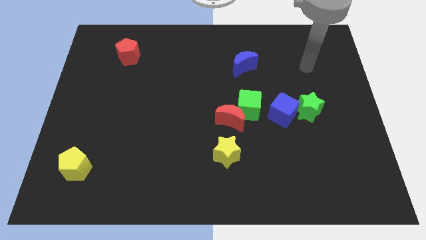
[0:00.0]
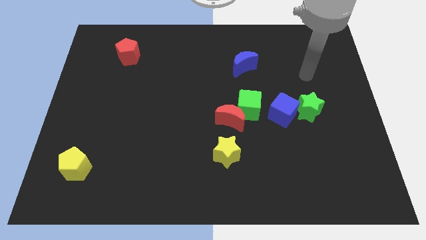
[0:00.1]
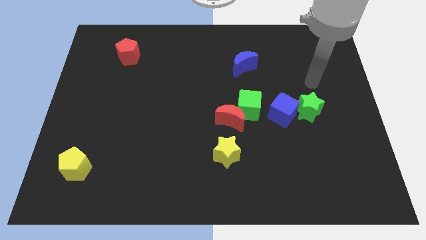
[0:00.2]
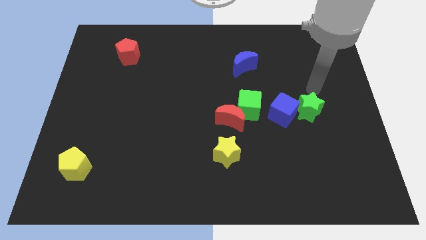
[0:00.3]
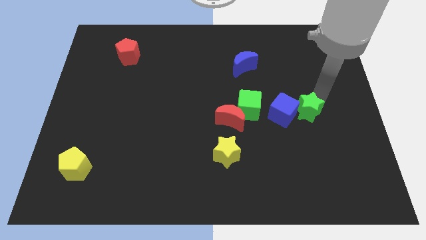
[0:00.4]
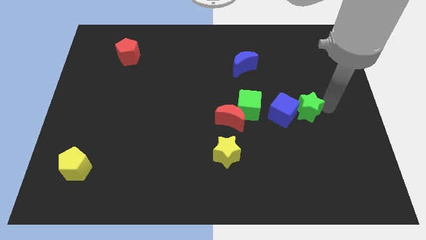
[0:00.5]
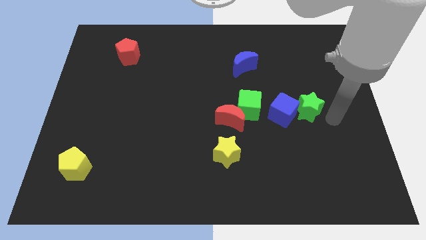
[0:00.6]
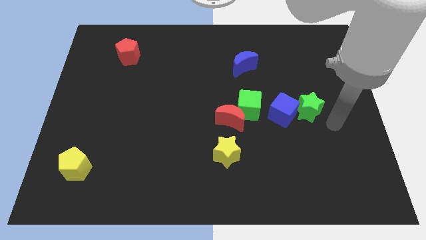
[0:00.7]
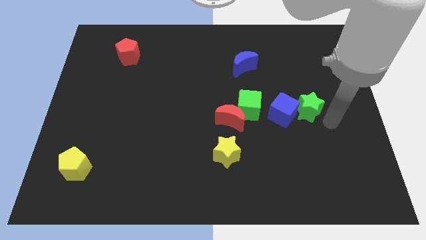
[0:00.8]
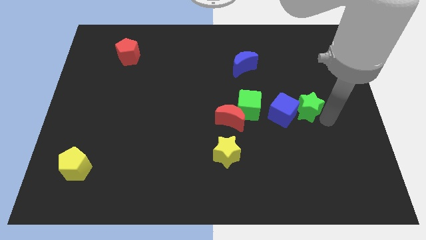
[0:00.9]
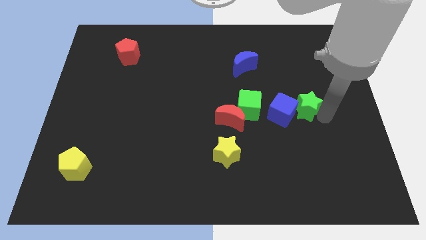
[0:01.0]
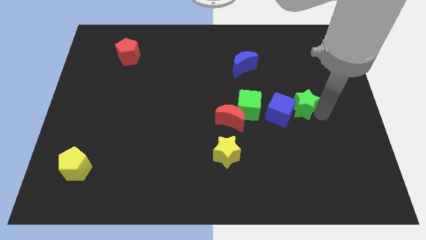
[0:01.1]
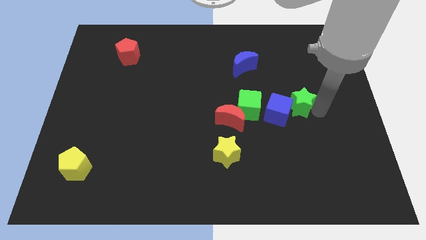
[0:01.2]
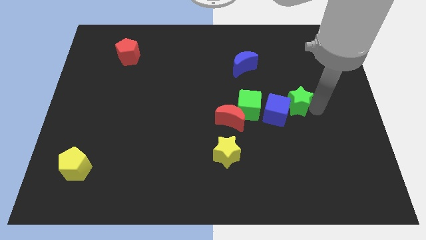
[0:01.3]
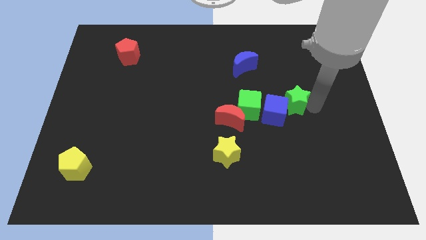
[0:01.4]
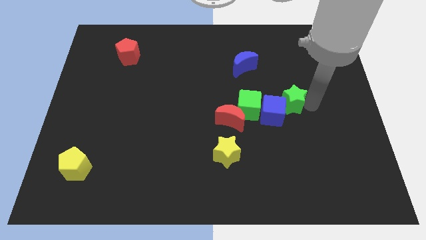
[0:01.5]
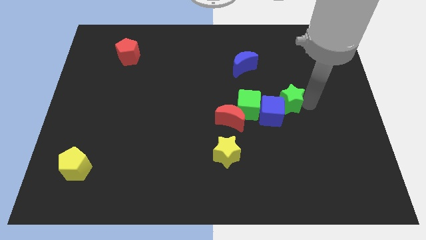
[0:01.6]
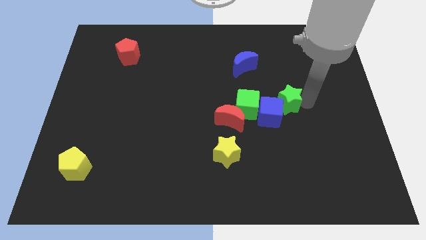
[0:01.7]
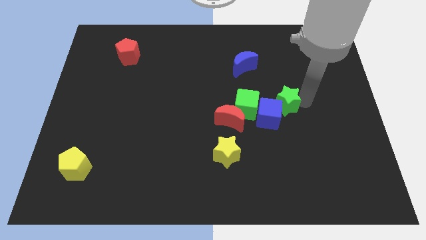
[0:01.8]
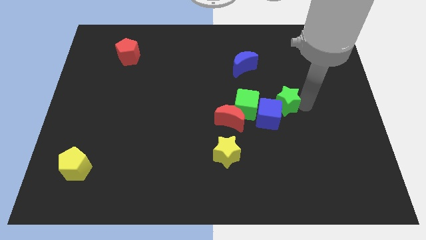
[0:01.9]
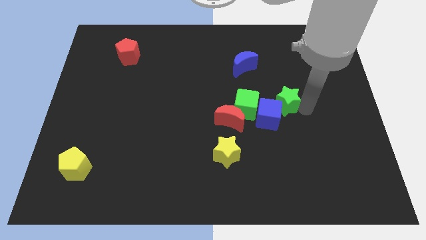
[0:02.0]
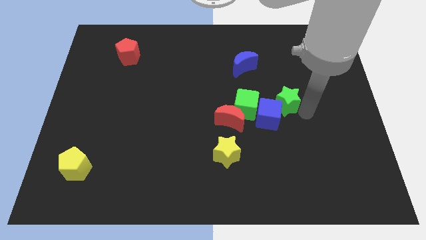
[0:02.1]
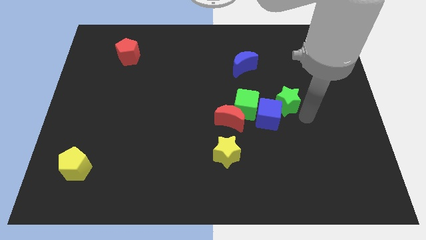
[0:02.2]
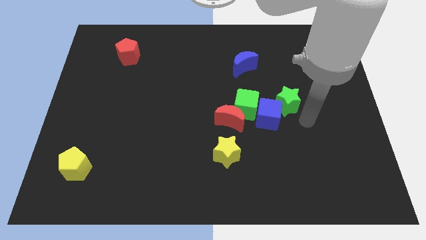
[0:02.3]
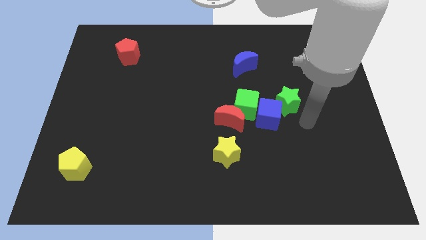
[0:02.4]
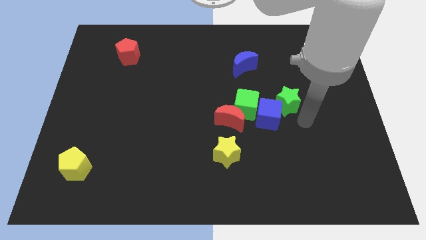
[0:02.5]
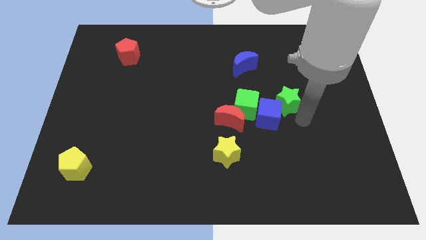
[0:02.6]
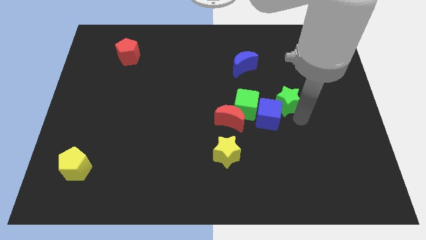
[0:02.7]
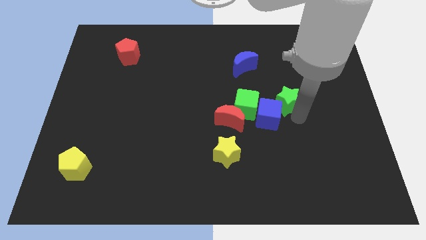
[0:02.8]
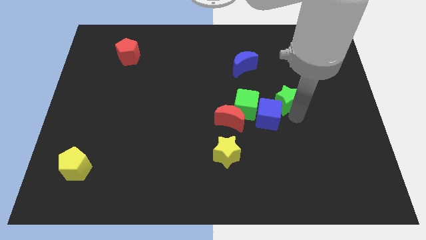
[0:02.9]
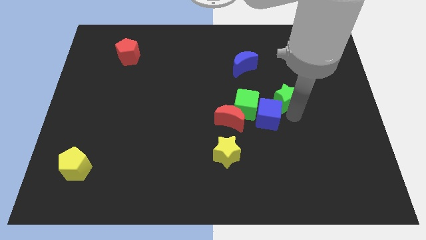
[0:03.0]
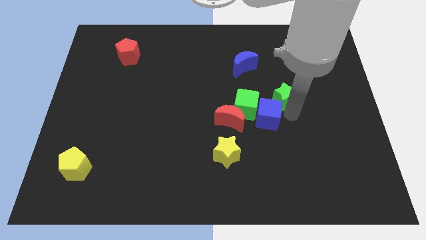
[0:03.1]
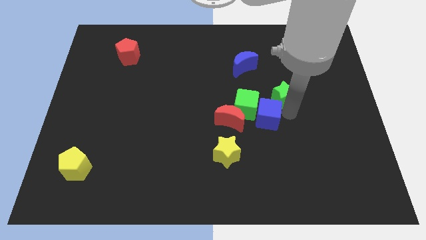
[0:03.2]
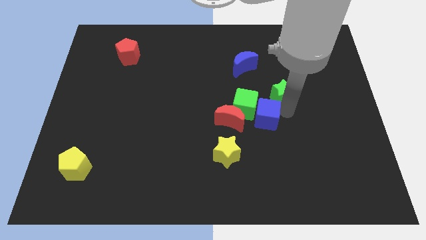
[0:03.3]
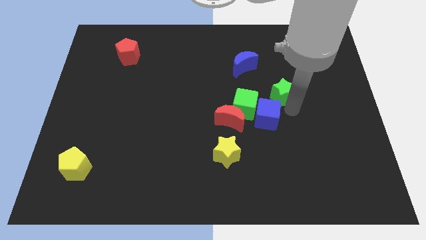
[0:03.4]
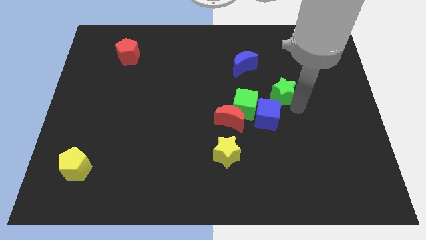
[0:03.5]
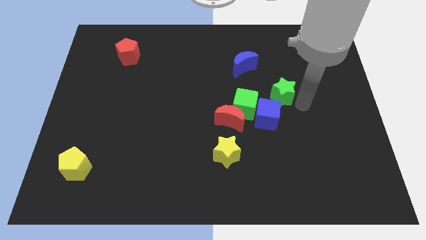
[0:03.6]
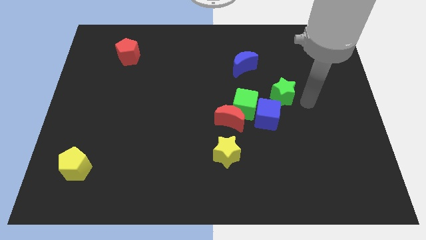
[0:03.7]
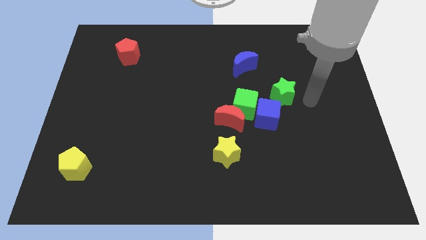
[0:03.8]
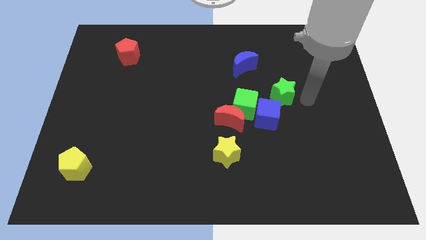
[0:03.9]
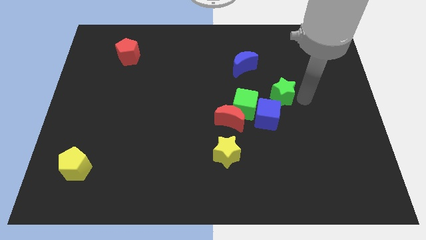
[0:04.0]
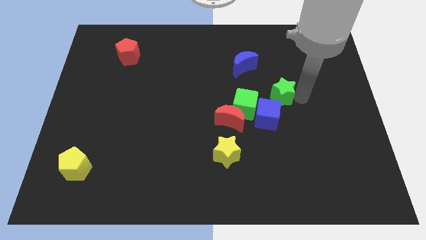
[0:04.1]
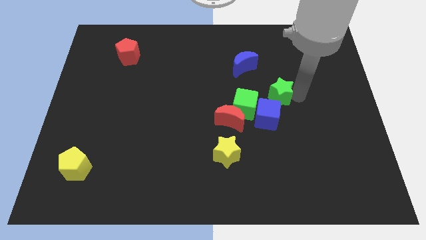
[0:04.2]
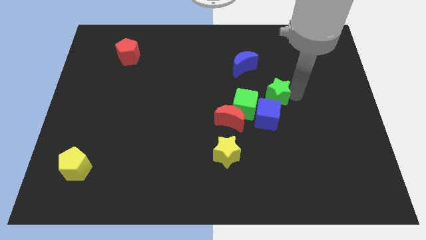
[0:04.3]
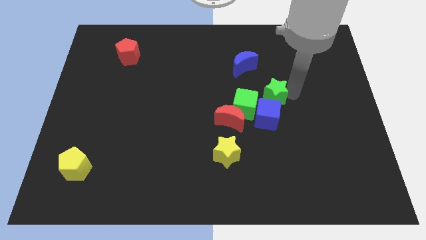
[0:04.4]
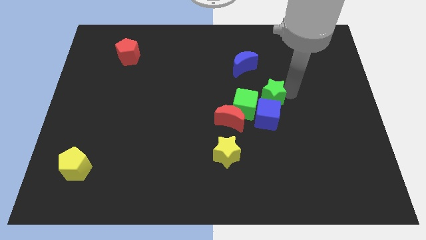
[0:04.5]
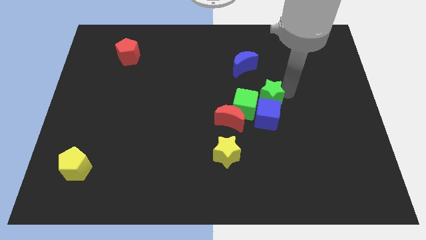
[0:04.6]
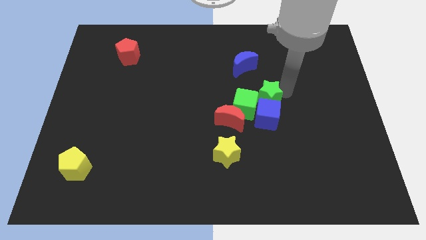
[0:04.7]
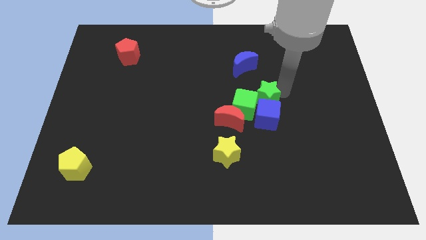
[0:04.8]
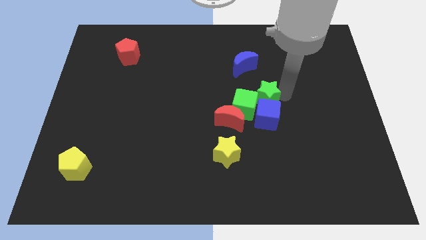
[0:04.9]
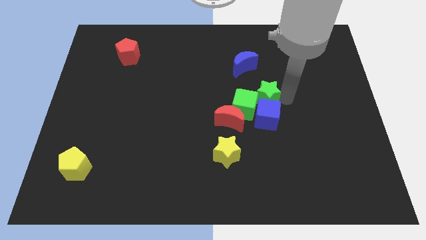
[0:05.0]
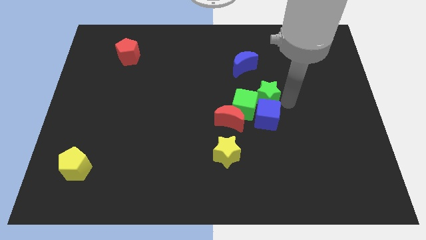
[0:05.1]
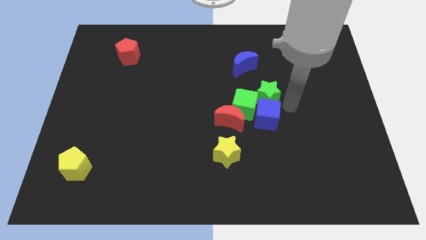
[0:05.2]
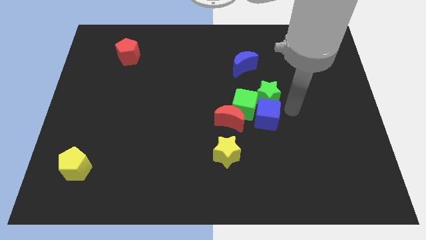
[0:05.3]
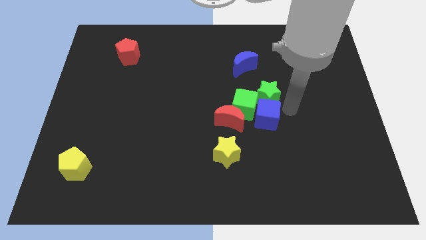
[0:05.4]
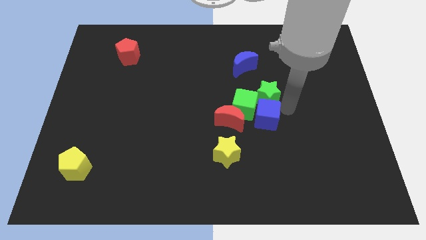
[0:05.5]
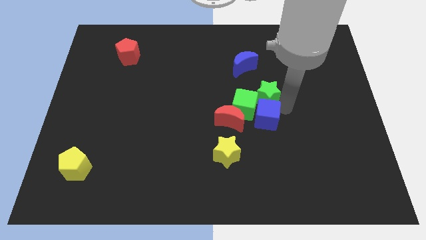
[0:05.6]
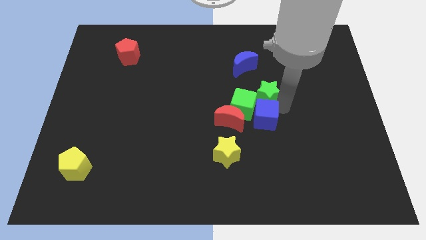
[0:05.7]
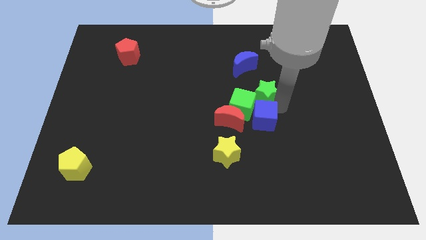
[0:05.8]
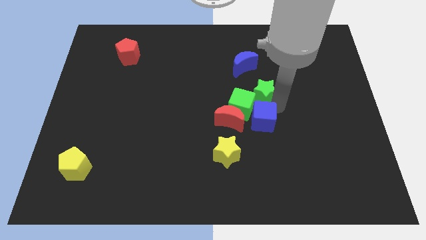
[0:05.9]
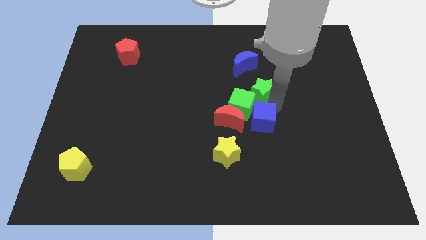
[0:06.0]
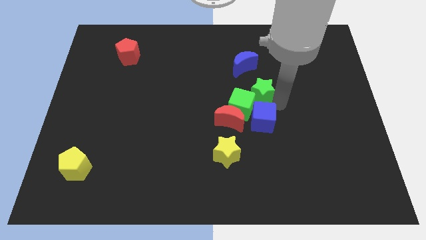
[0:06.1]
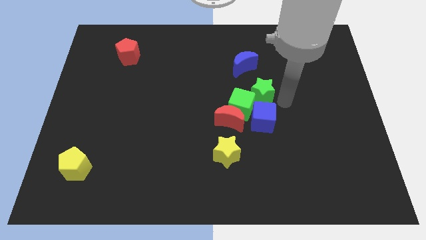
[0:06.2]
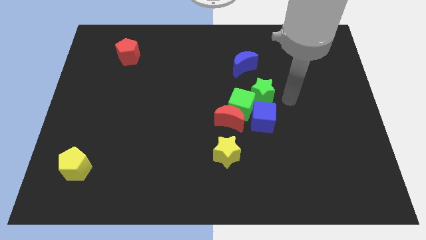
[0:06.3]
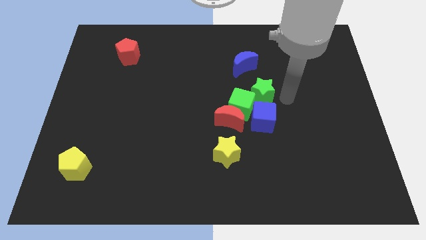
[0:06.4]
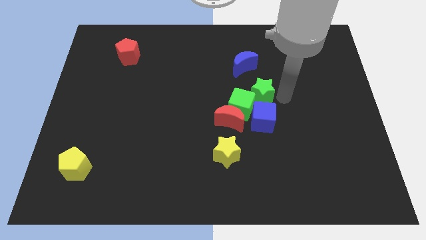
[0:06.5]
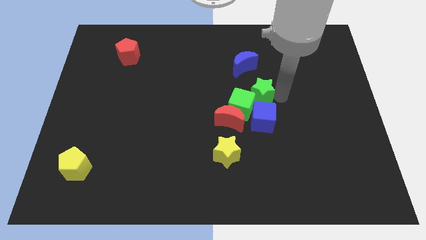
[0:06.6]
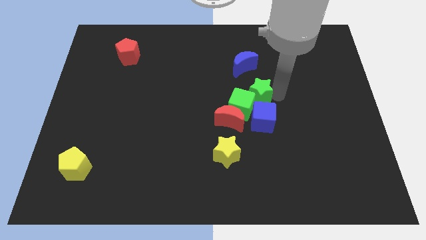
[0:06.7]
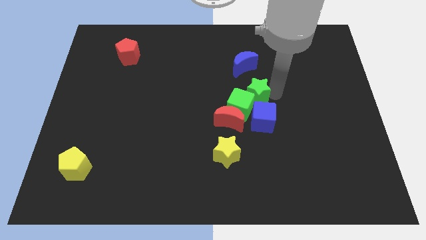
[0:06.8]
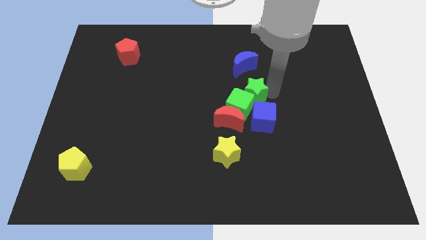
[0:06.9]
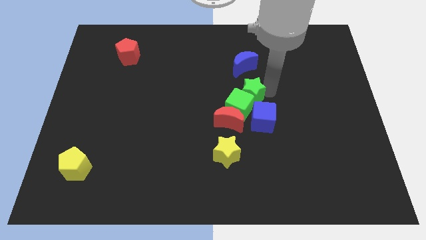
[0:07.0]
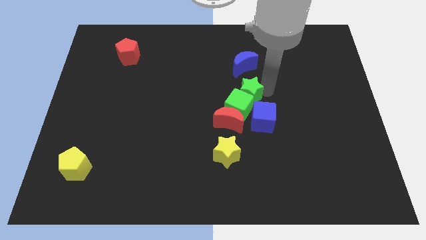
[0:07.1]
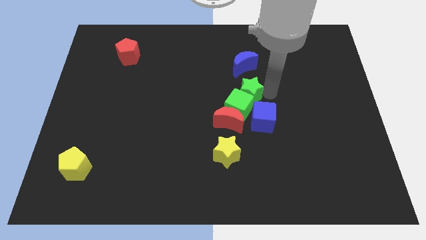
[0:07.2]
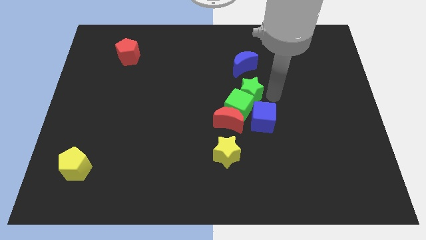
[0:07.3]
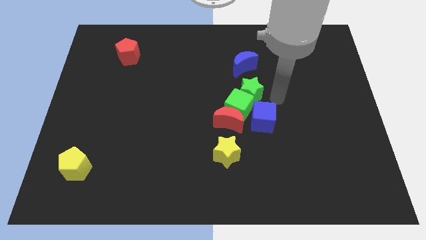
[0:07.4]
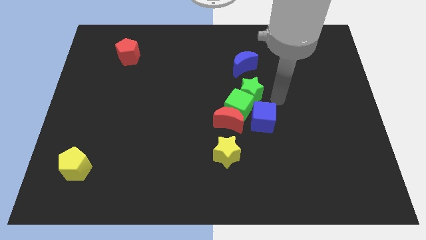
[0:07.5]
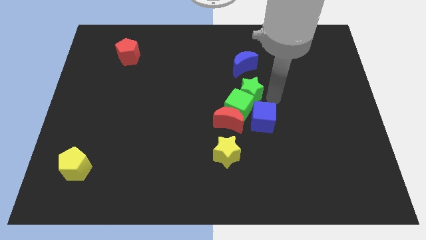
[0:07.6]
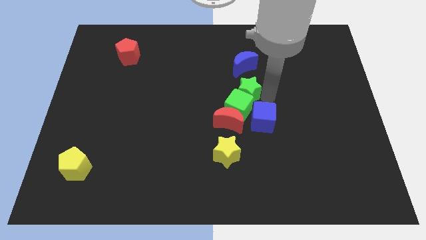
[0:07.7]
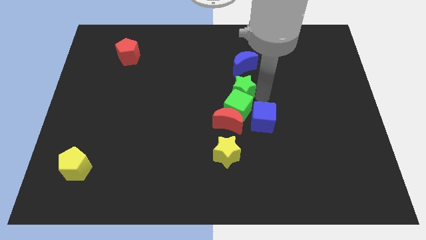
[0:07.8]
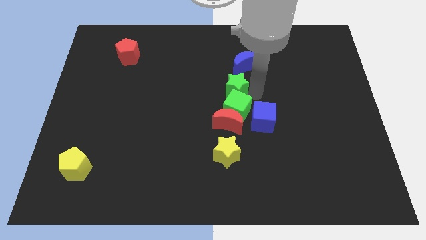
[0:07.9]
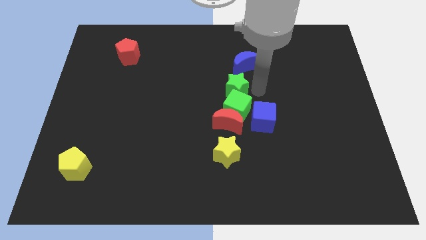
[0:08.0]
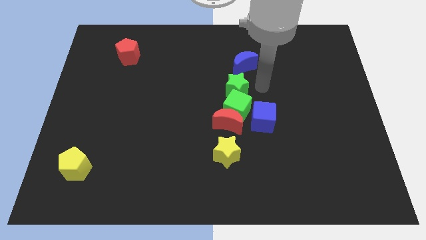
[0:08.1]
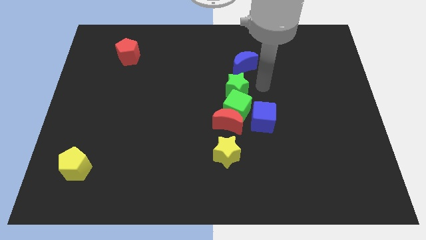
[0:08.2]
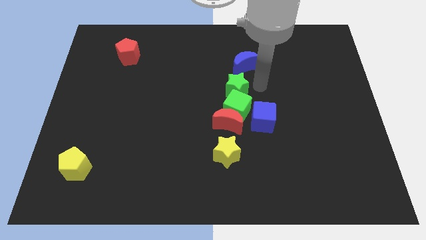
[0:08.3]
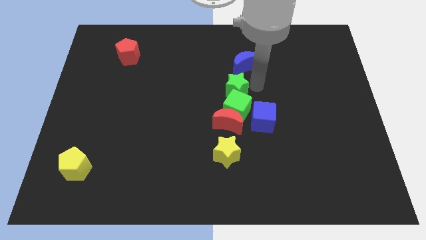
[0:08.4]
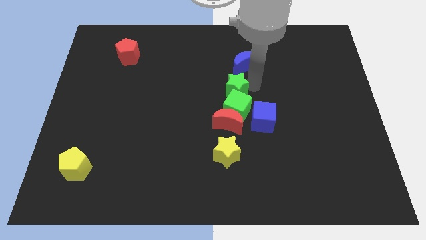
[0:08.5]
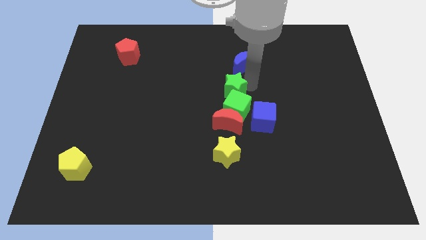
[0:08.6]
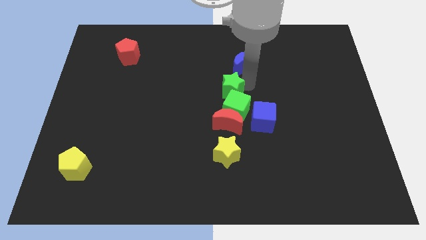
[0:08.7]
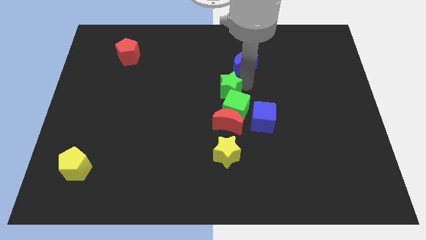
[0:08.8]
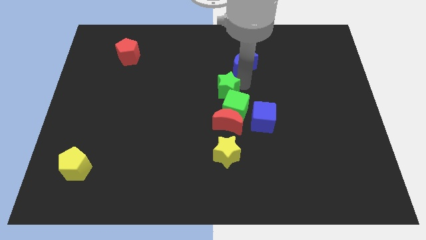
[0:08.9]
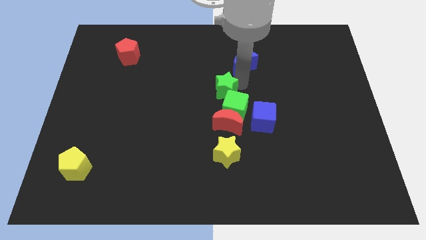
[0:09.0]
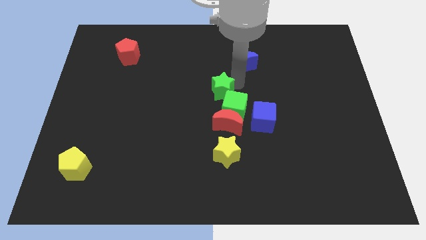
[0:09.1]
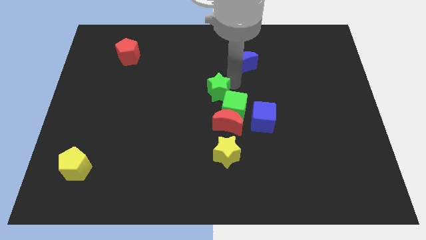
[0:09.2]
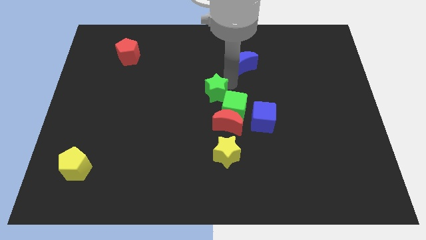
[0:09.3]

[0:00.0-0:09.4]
move the green star left
